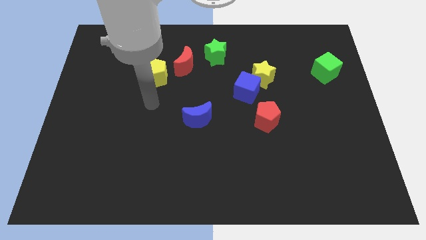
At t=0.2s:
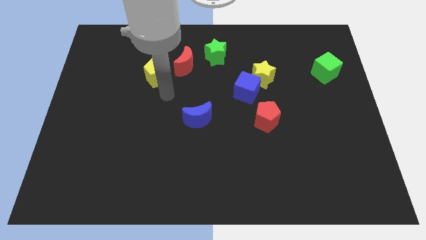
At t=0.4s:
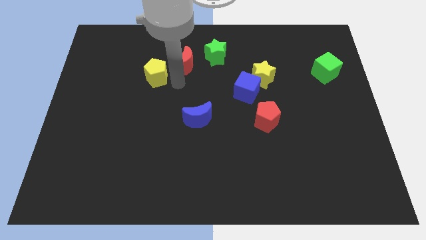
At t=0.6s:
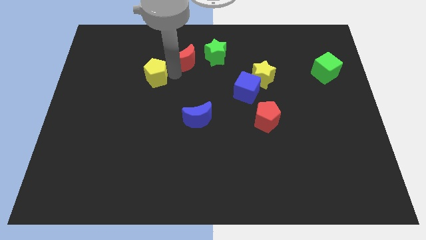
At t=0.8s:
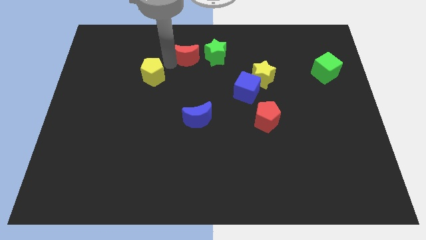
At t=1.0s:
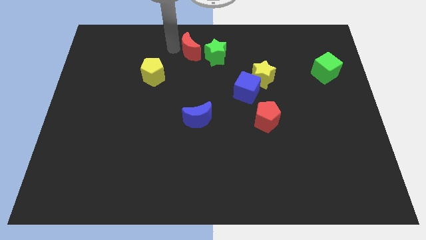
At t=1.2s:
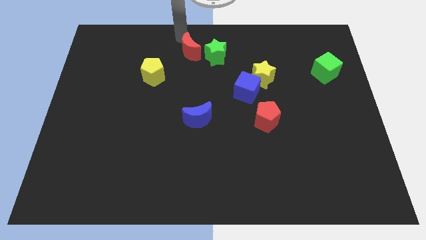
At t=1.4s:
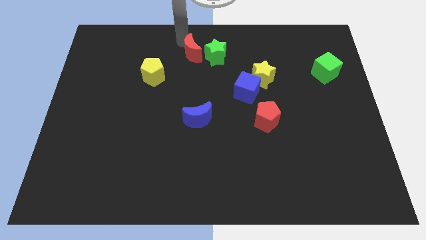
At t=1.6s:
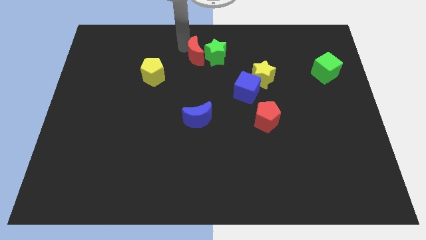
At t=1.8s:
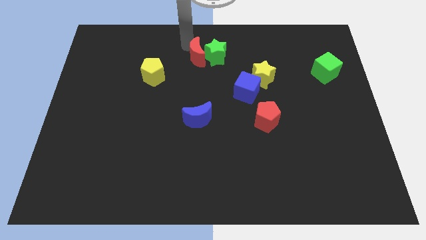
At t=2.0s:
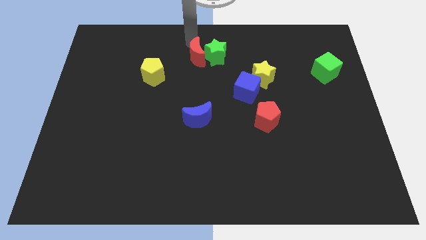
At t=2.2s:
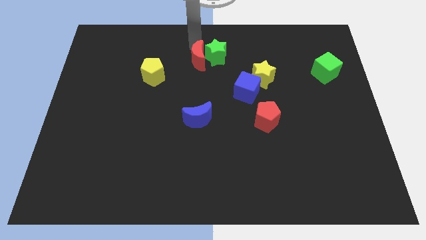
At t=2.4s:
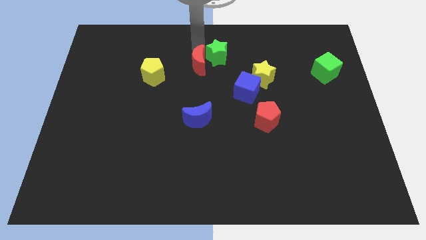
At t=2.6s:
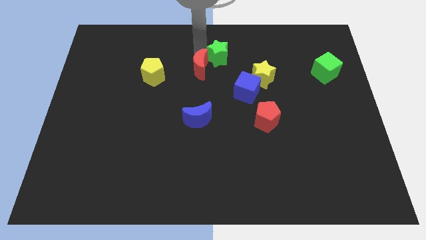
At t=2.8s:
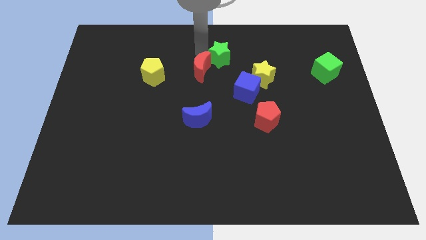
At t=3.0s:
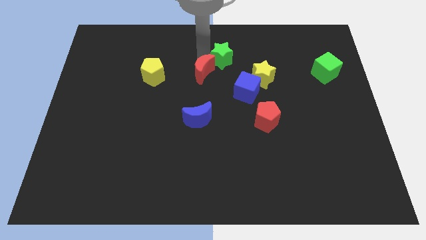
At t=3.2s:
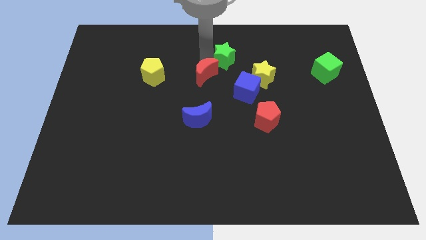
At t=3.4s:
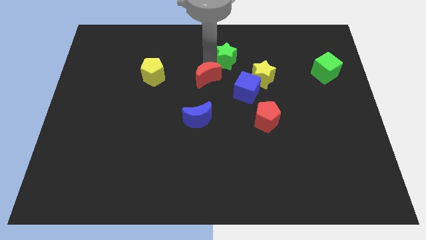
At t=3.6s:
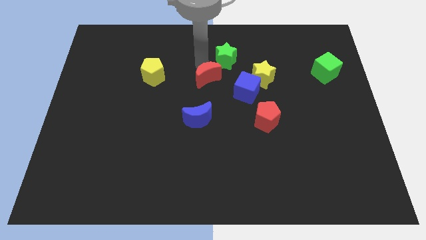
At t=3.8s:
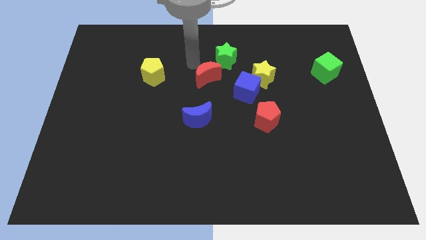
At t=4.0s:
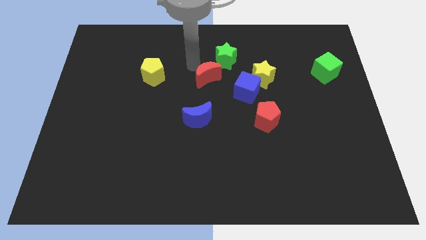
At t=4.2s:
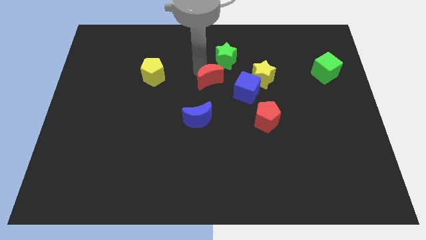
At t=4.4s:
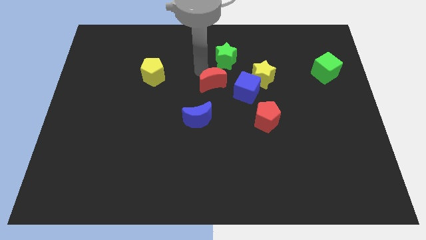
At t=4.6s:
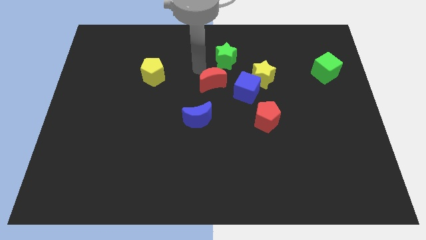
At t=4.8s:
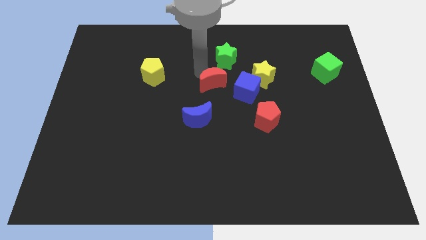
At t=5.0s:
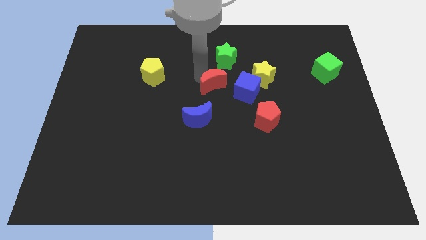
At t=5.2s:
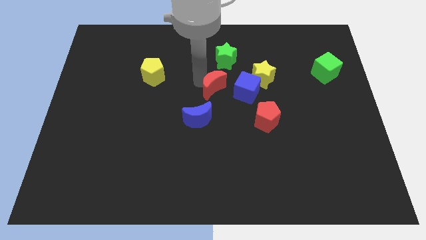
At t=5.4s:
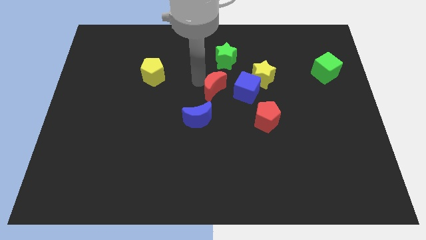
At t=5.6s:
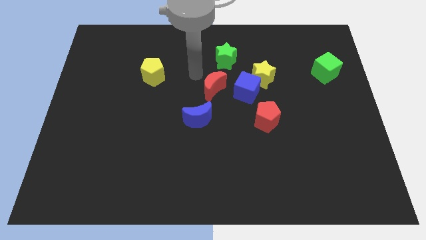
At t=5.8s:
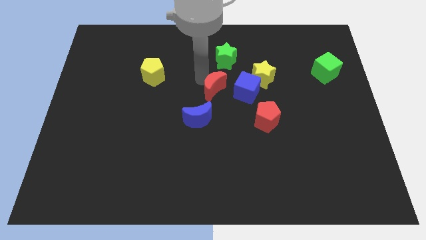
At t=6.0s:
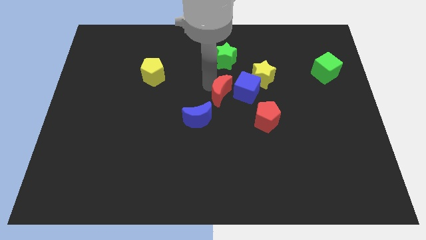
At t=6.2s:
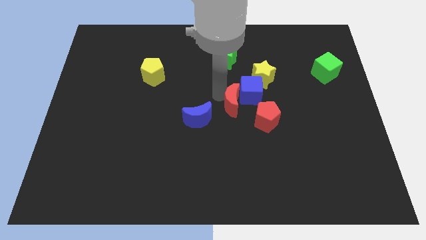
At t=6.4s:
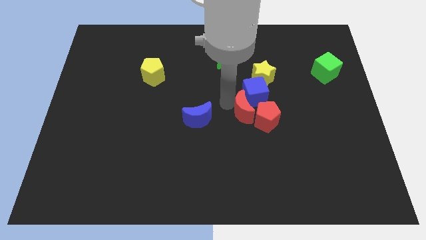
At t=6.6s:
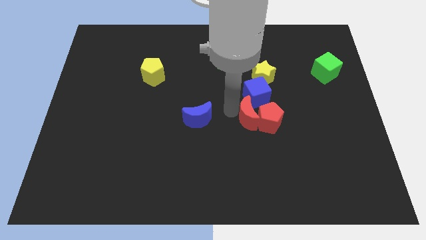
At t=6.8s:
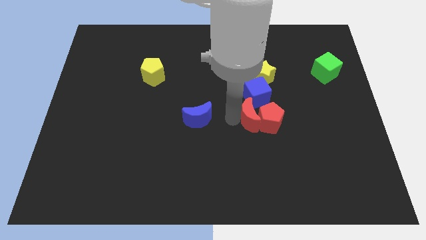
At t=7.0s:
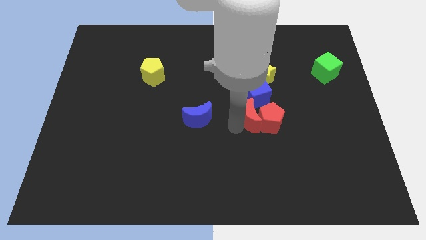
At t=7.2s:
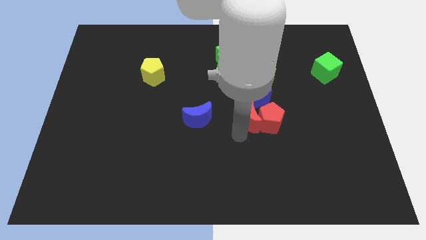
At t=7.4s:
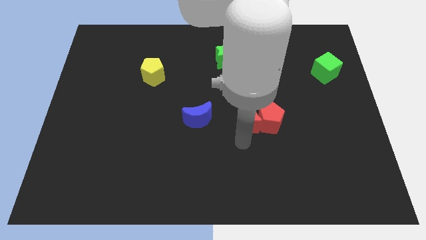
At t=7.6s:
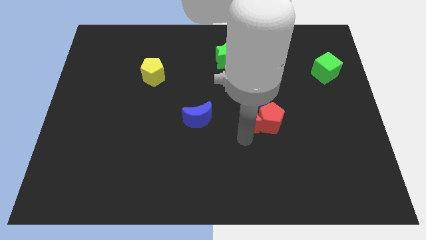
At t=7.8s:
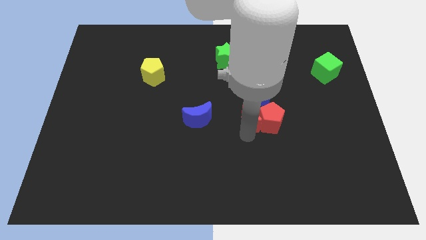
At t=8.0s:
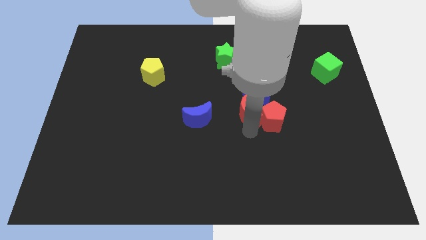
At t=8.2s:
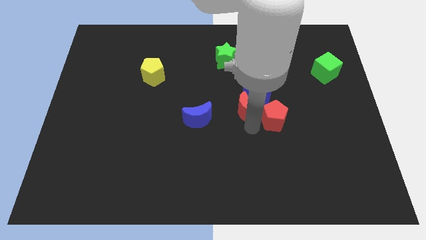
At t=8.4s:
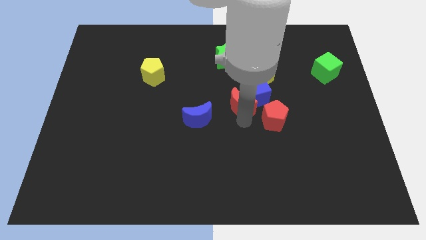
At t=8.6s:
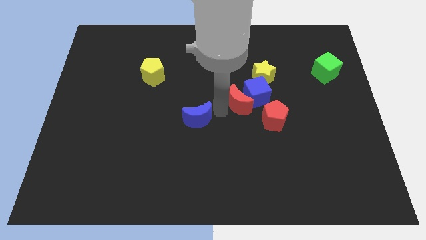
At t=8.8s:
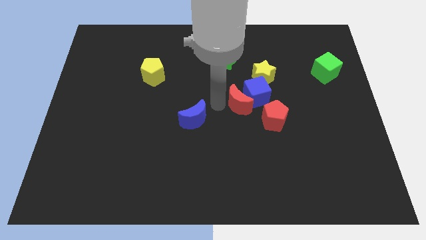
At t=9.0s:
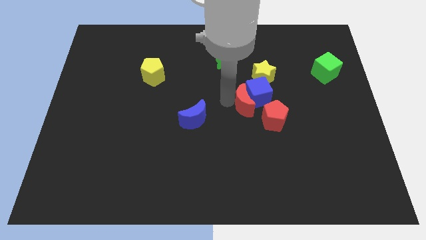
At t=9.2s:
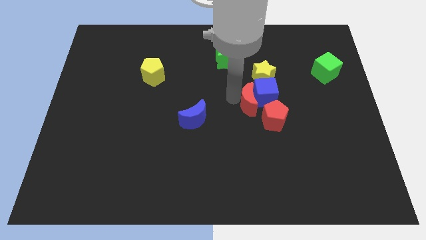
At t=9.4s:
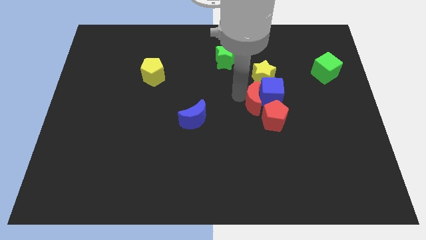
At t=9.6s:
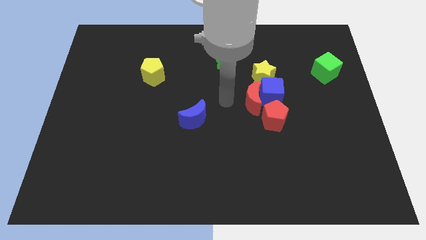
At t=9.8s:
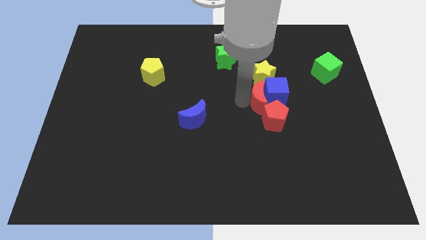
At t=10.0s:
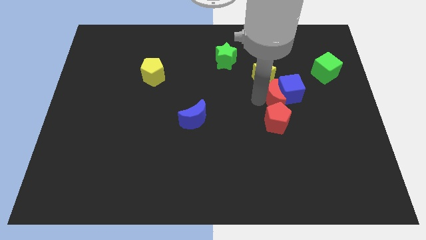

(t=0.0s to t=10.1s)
move the red moon diagonally up and to the right of the red pentagon

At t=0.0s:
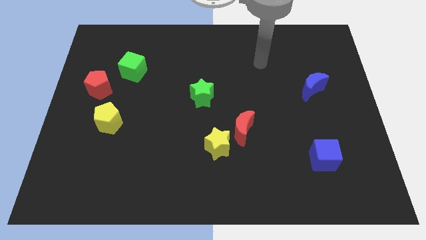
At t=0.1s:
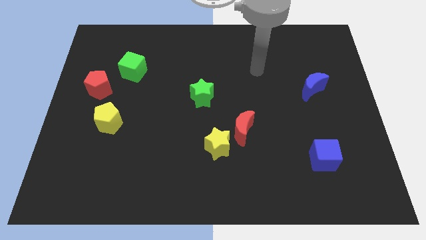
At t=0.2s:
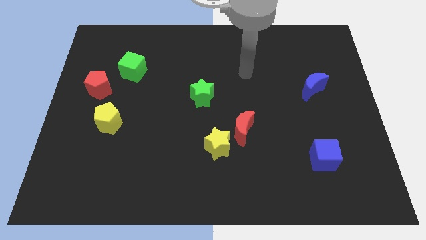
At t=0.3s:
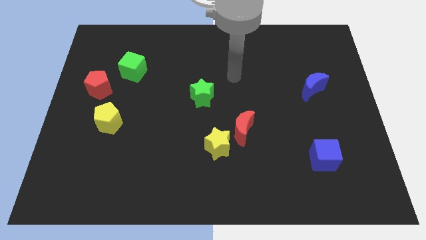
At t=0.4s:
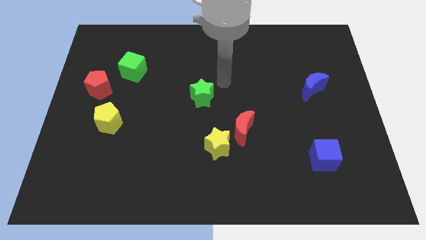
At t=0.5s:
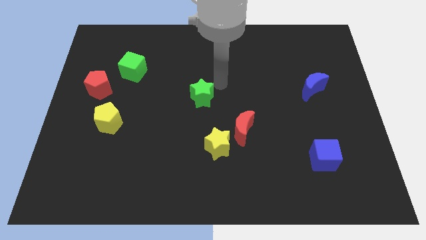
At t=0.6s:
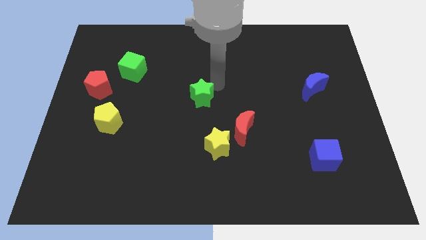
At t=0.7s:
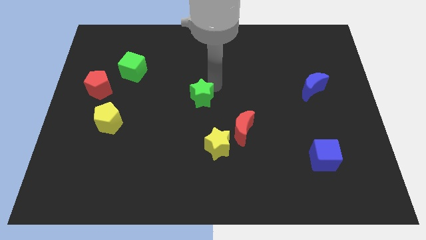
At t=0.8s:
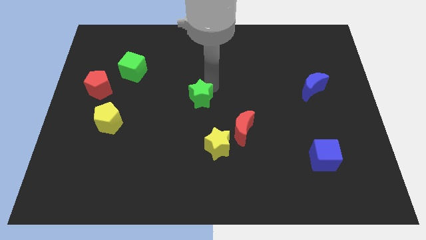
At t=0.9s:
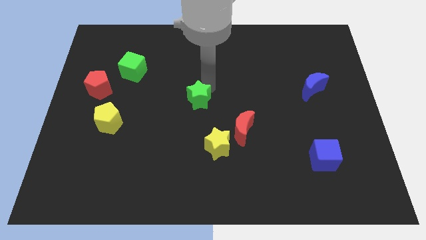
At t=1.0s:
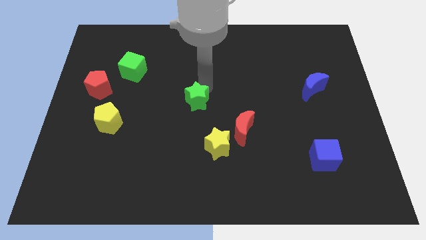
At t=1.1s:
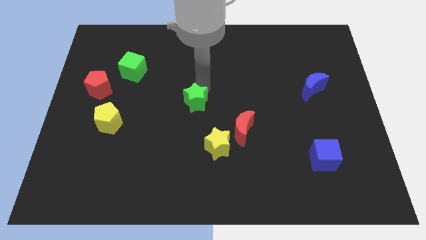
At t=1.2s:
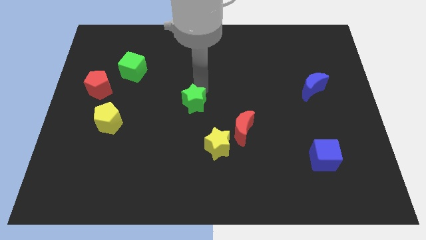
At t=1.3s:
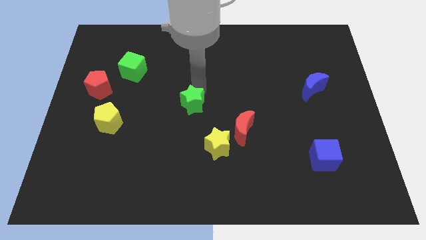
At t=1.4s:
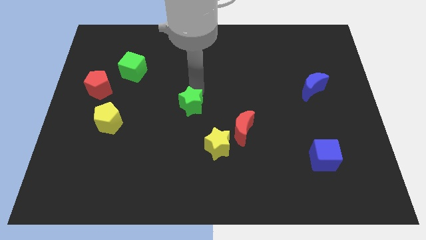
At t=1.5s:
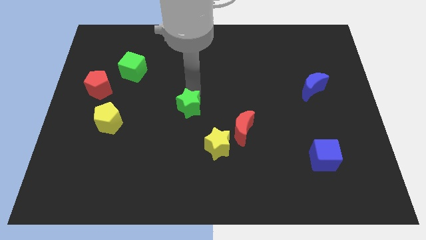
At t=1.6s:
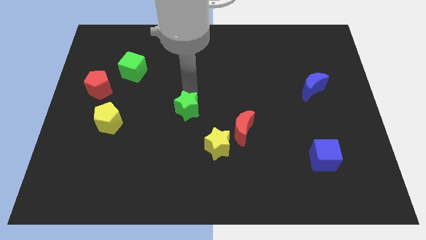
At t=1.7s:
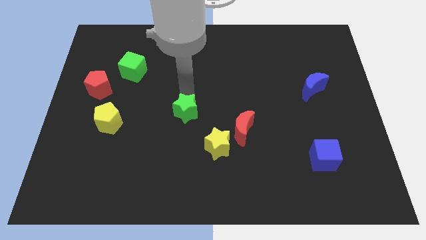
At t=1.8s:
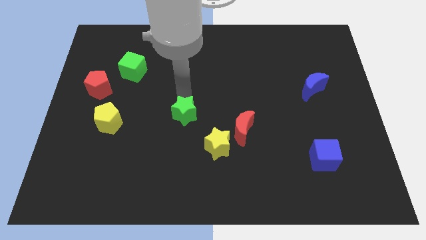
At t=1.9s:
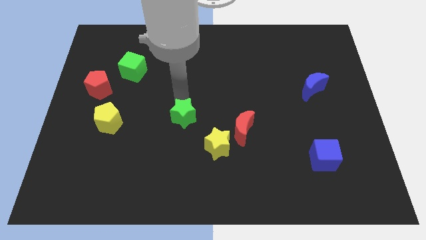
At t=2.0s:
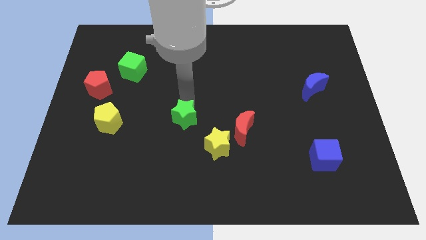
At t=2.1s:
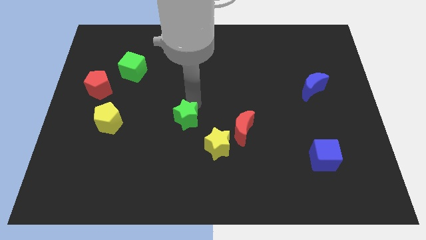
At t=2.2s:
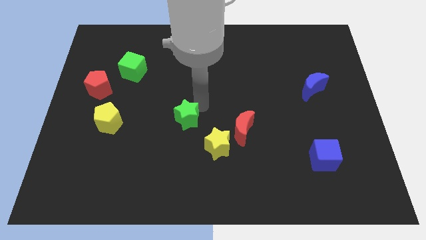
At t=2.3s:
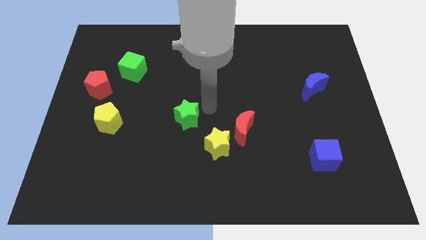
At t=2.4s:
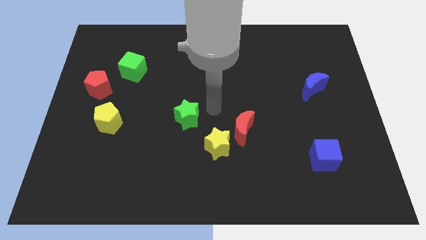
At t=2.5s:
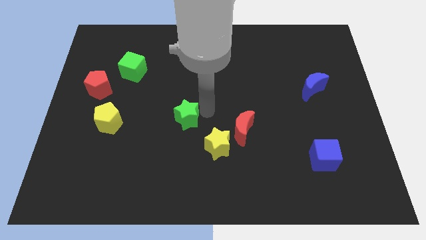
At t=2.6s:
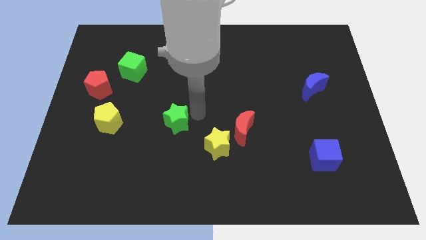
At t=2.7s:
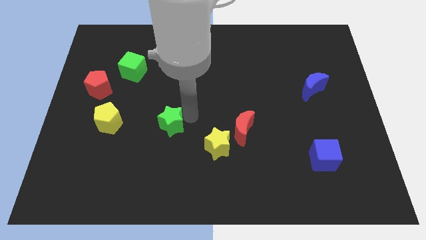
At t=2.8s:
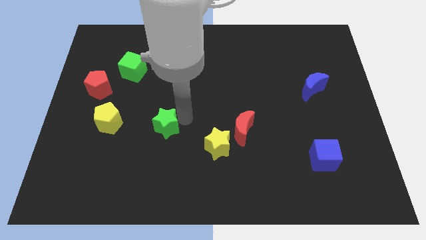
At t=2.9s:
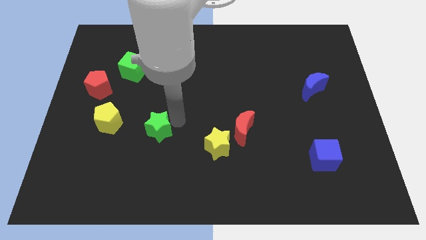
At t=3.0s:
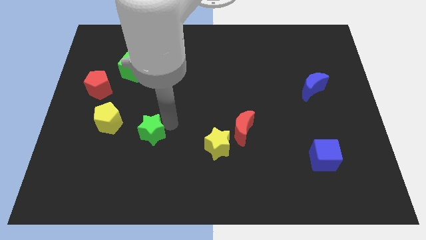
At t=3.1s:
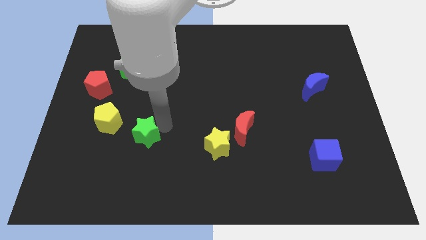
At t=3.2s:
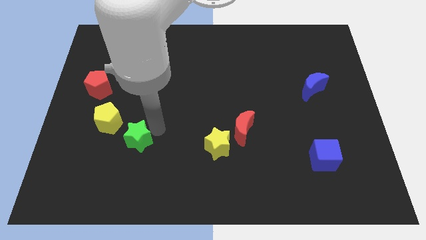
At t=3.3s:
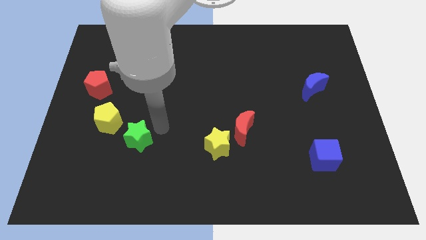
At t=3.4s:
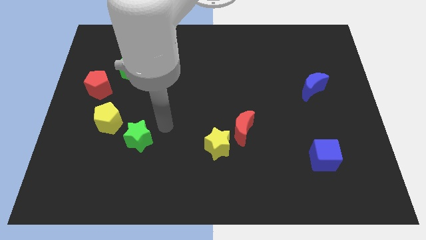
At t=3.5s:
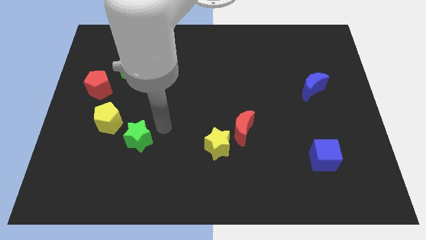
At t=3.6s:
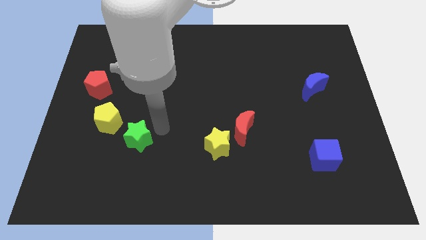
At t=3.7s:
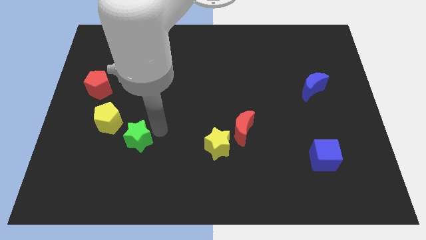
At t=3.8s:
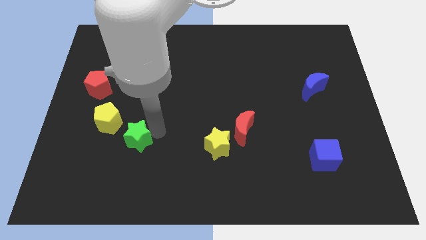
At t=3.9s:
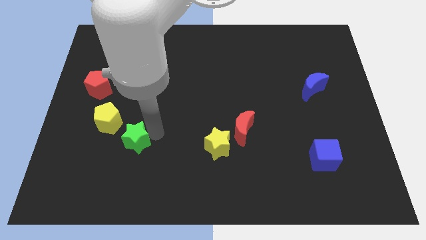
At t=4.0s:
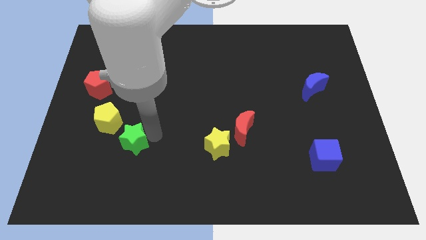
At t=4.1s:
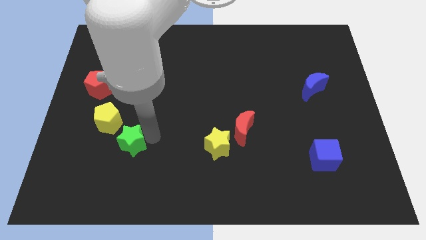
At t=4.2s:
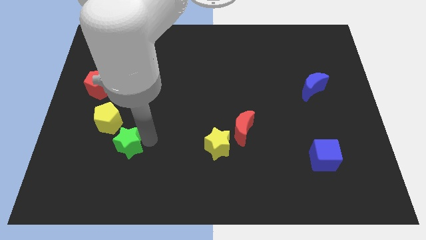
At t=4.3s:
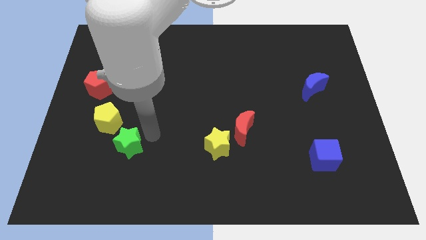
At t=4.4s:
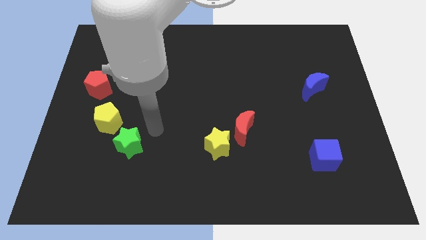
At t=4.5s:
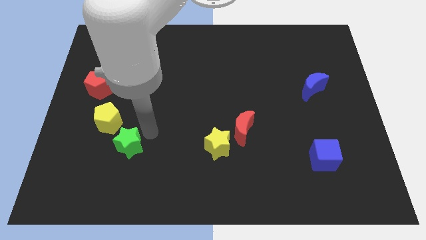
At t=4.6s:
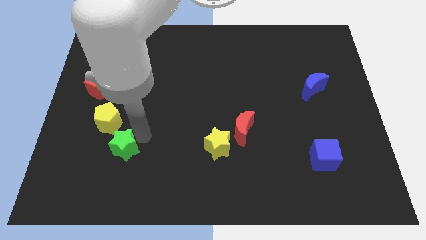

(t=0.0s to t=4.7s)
slide the green star below the yellow pentagon
